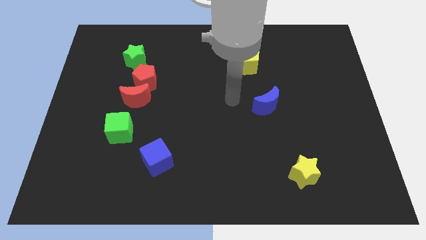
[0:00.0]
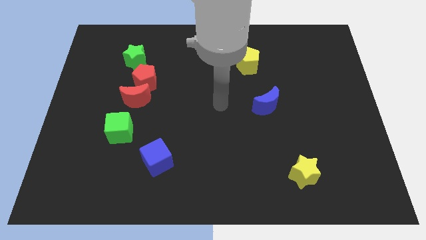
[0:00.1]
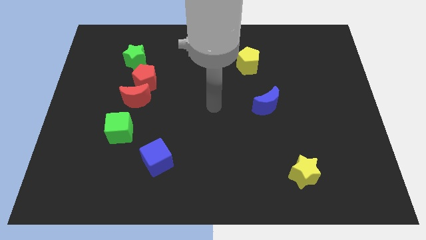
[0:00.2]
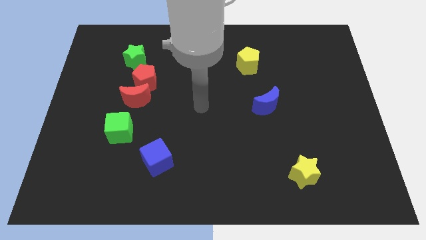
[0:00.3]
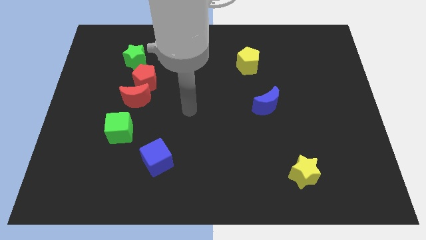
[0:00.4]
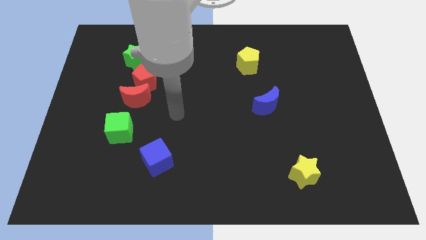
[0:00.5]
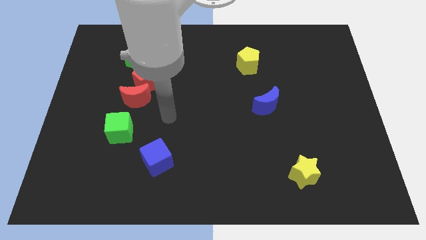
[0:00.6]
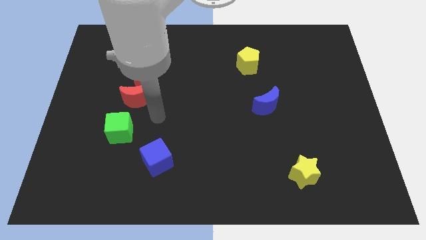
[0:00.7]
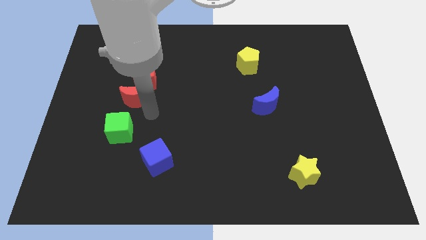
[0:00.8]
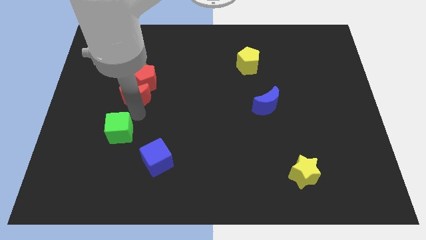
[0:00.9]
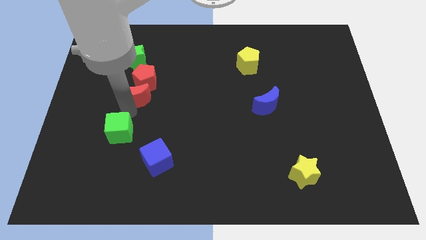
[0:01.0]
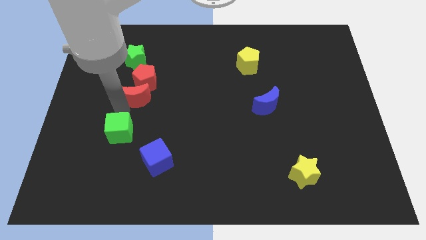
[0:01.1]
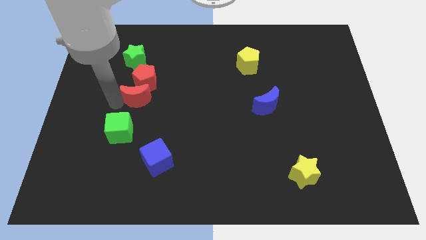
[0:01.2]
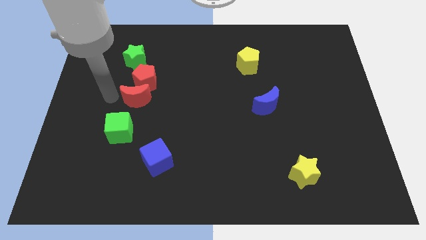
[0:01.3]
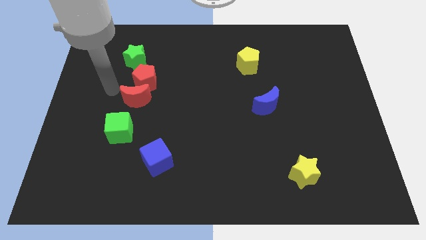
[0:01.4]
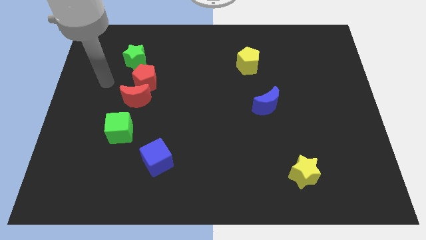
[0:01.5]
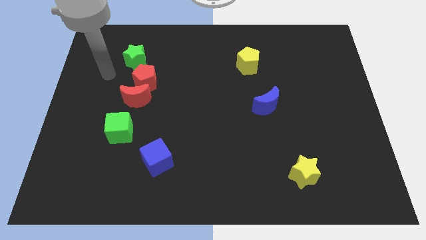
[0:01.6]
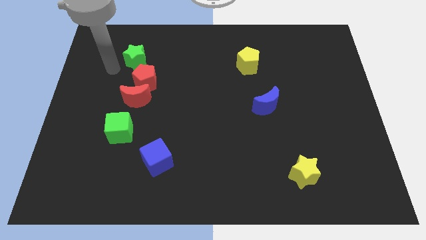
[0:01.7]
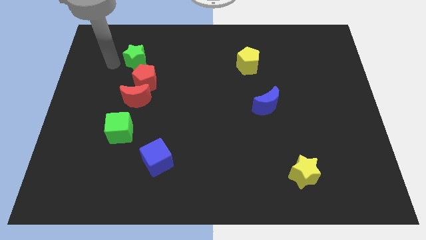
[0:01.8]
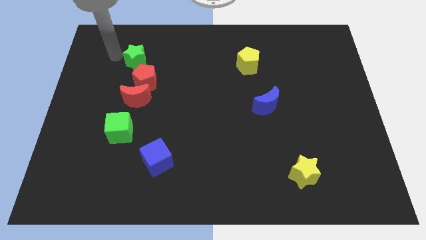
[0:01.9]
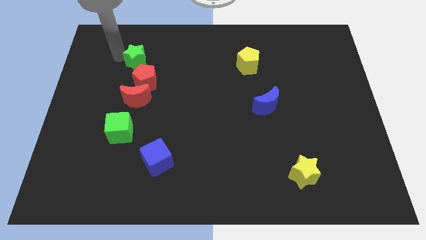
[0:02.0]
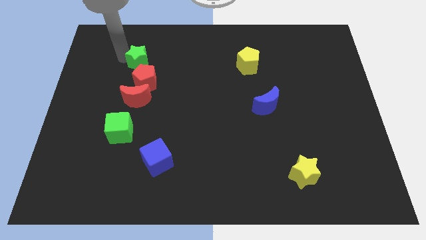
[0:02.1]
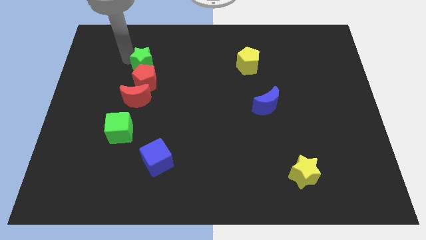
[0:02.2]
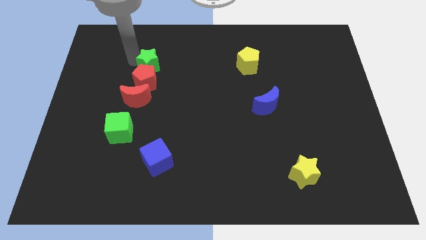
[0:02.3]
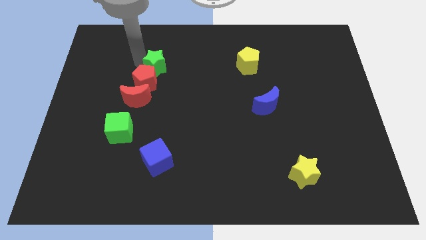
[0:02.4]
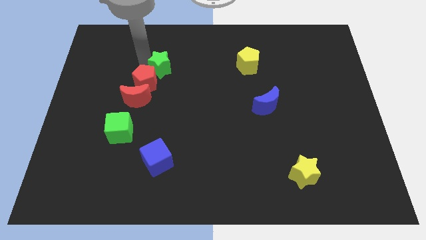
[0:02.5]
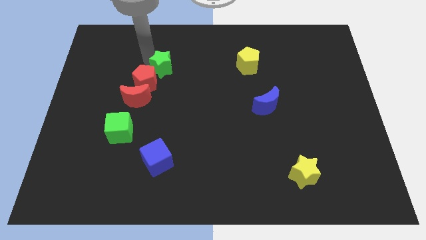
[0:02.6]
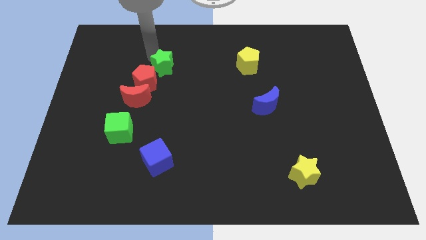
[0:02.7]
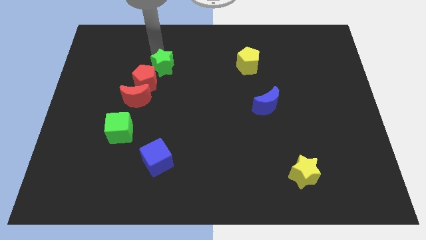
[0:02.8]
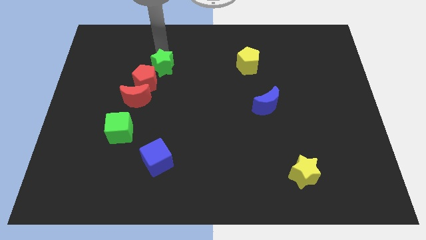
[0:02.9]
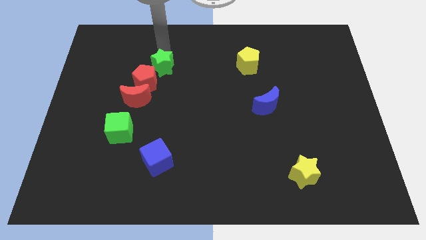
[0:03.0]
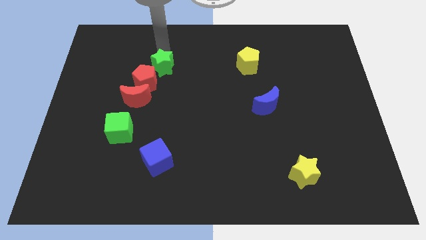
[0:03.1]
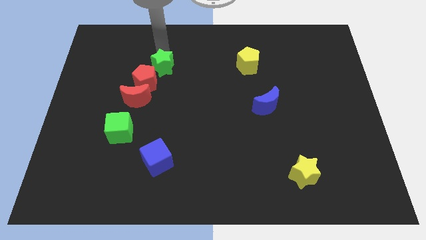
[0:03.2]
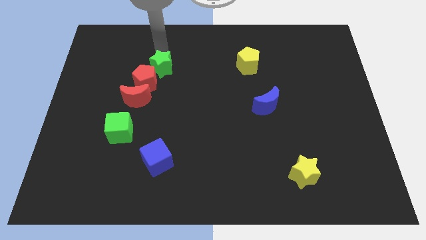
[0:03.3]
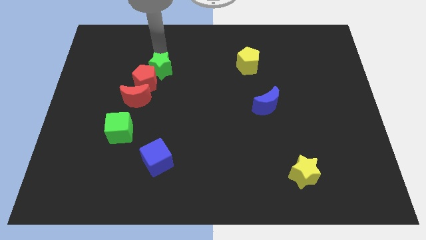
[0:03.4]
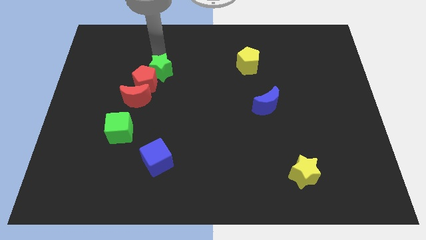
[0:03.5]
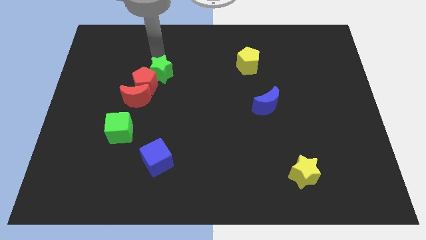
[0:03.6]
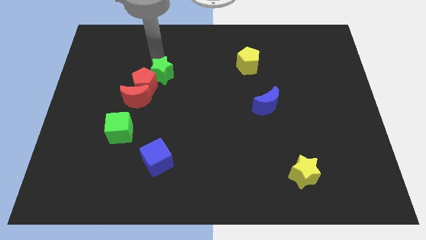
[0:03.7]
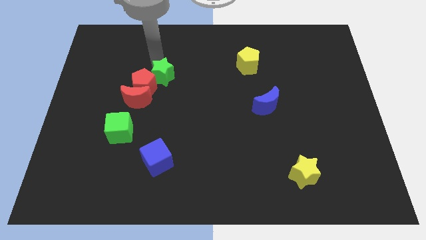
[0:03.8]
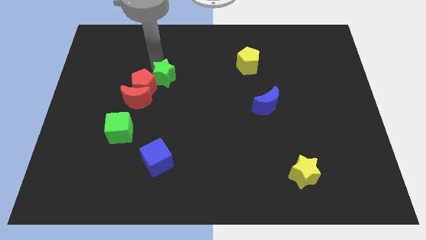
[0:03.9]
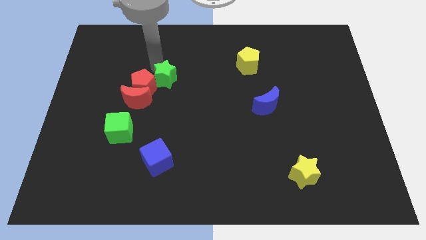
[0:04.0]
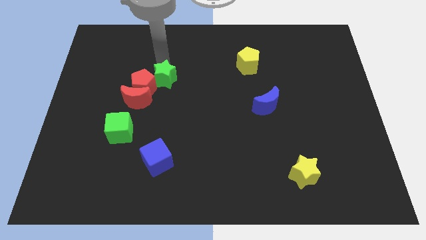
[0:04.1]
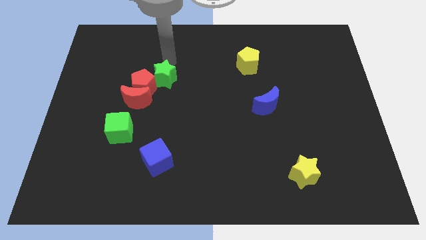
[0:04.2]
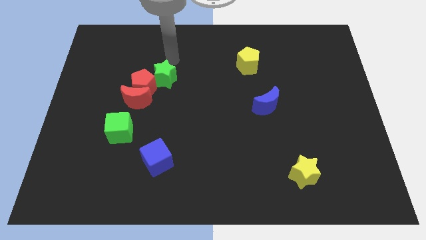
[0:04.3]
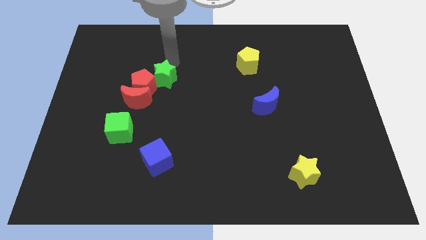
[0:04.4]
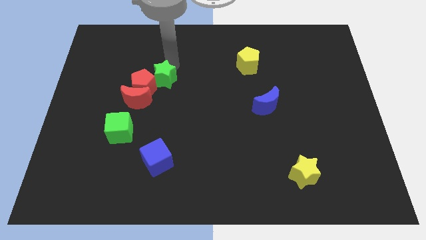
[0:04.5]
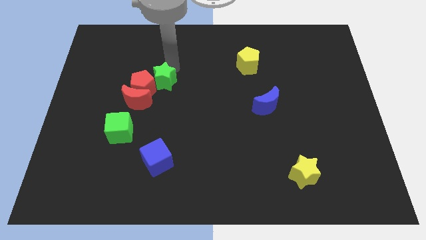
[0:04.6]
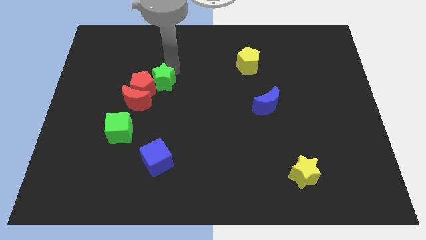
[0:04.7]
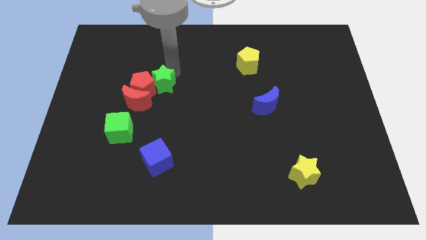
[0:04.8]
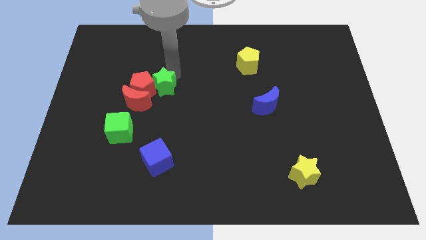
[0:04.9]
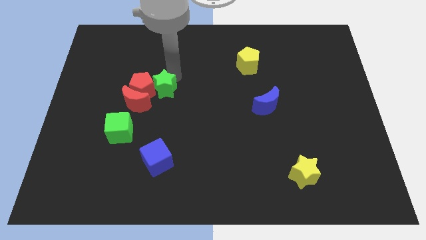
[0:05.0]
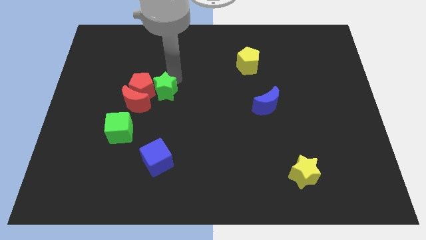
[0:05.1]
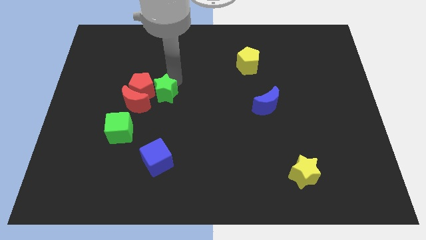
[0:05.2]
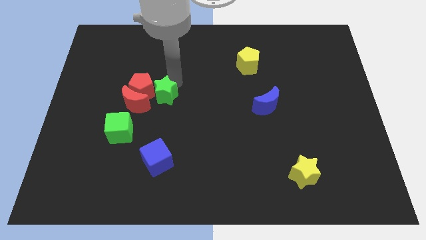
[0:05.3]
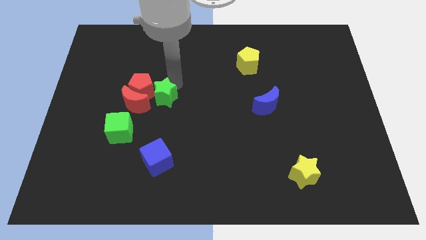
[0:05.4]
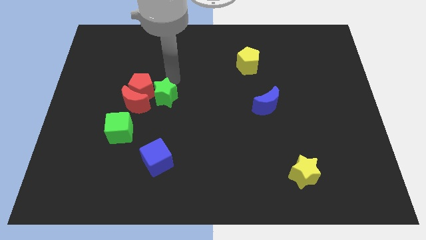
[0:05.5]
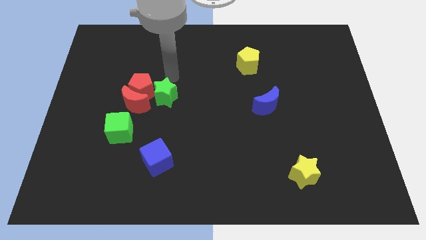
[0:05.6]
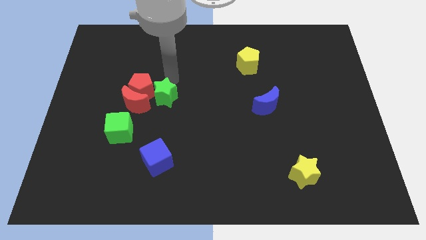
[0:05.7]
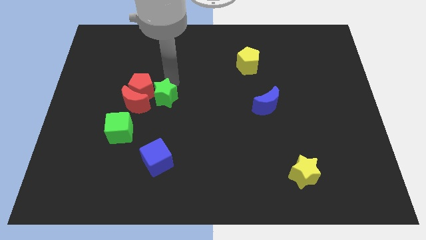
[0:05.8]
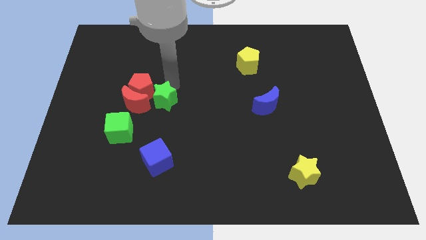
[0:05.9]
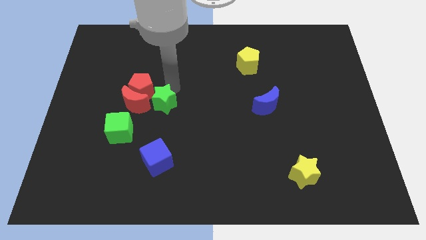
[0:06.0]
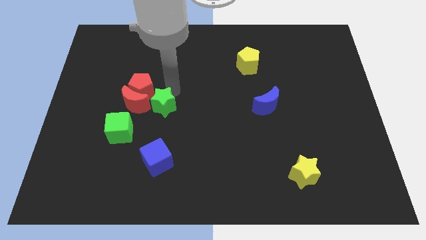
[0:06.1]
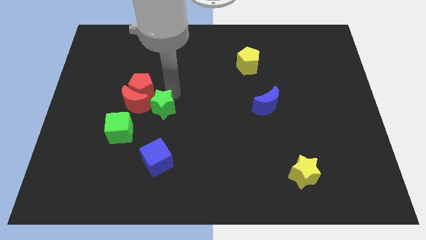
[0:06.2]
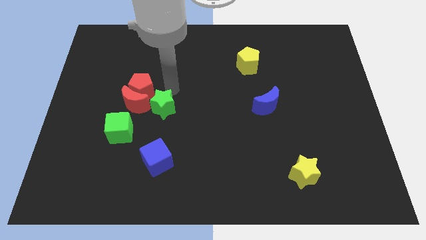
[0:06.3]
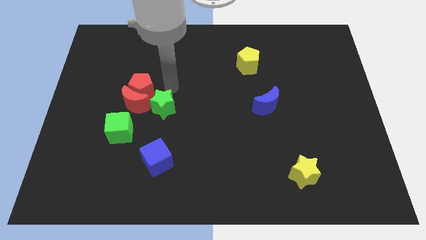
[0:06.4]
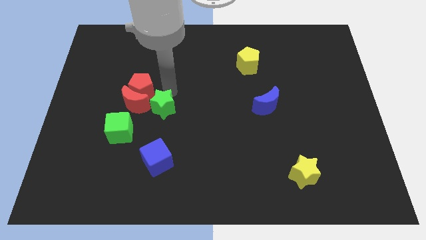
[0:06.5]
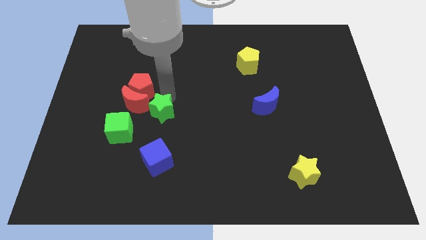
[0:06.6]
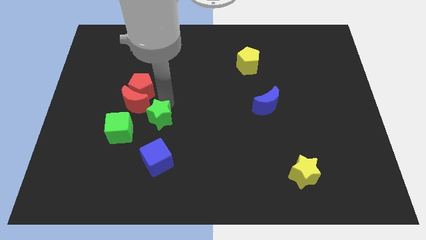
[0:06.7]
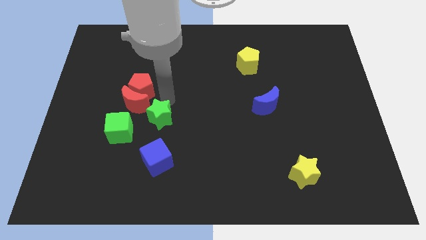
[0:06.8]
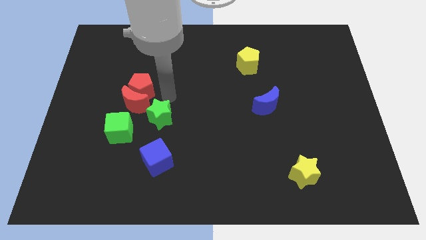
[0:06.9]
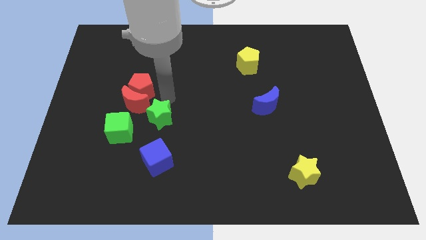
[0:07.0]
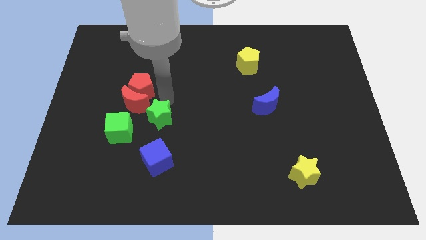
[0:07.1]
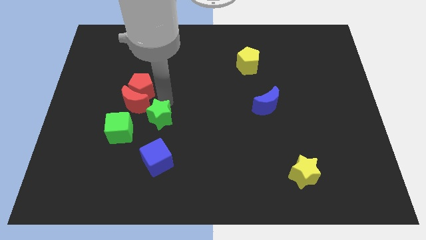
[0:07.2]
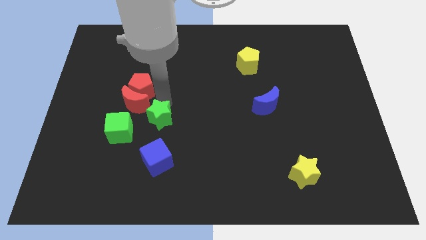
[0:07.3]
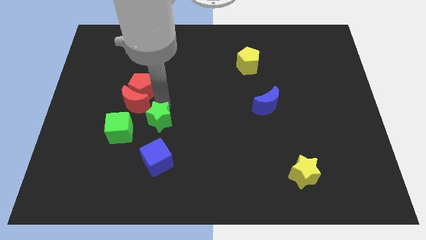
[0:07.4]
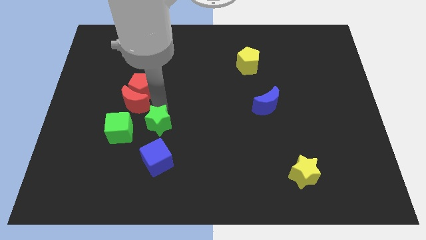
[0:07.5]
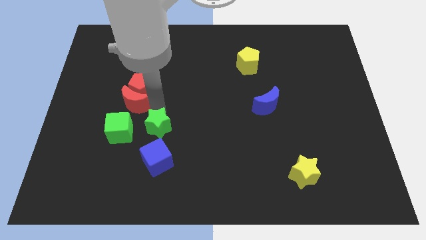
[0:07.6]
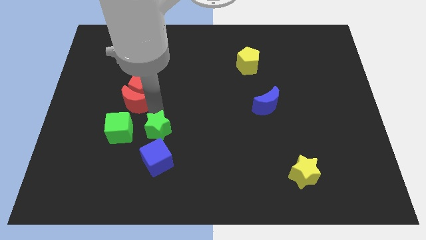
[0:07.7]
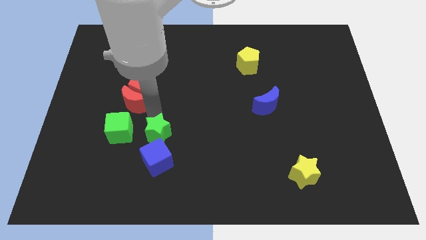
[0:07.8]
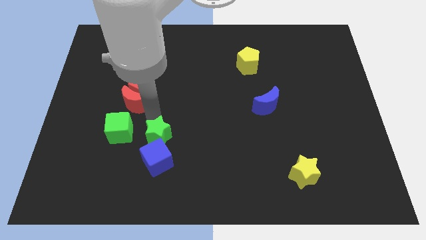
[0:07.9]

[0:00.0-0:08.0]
move the green star towards the blue cube
